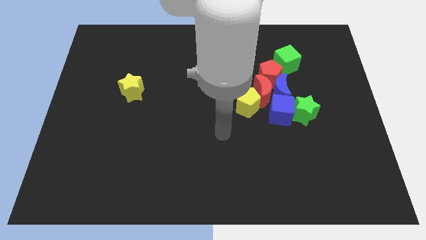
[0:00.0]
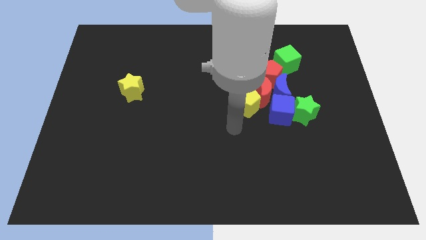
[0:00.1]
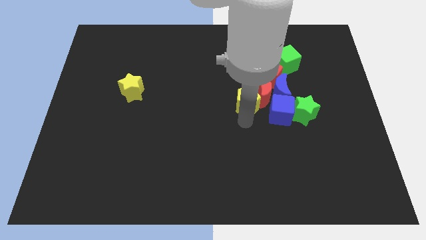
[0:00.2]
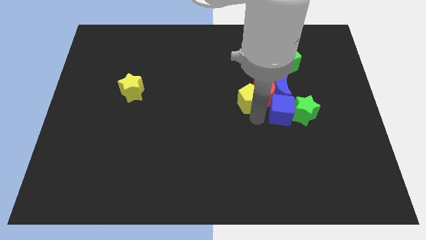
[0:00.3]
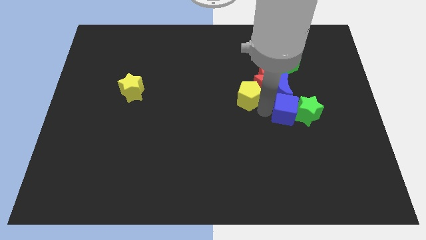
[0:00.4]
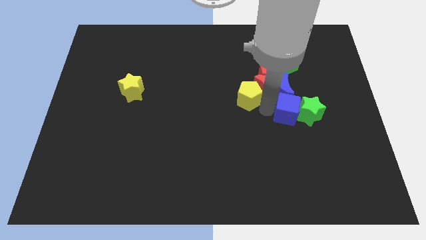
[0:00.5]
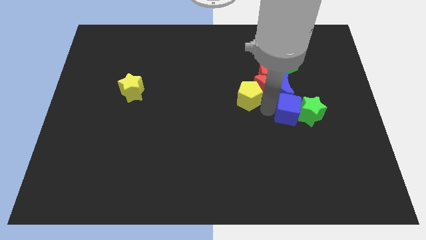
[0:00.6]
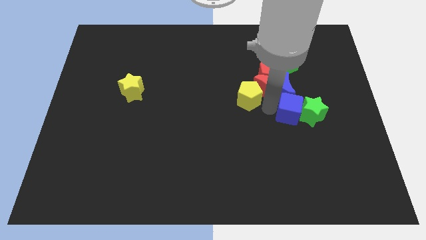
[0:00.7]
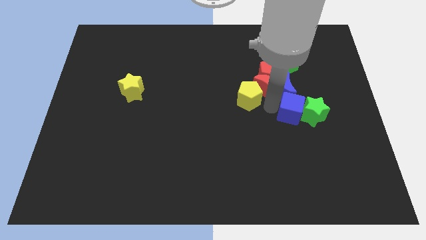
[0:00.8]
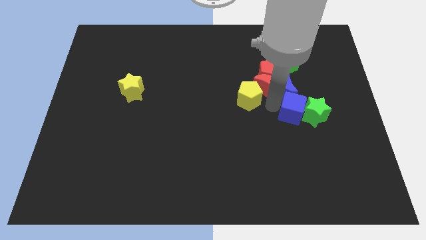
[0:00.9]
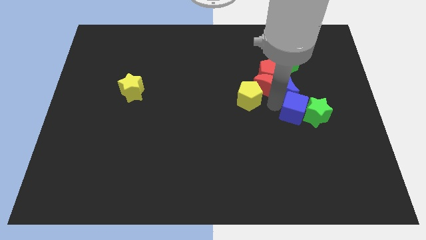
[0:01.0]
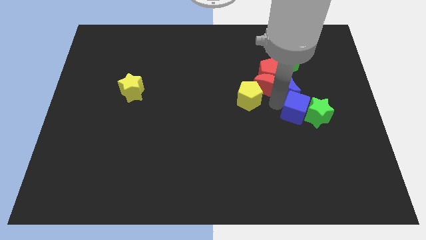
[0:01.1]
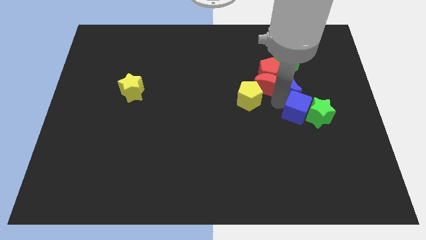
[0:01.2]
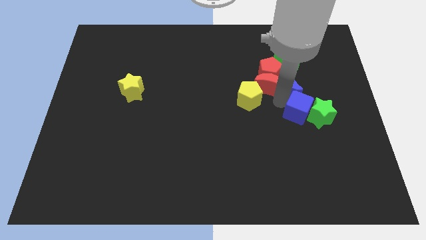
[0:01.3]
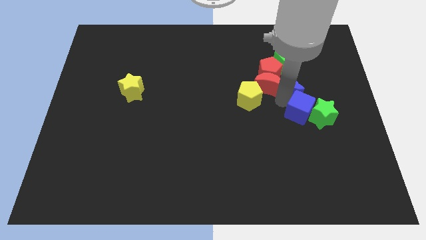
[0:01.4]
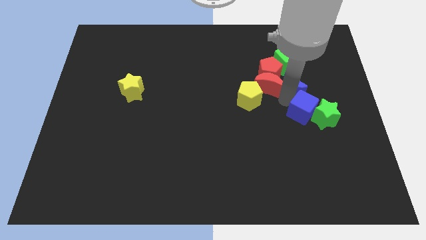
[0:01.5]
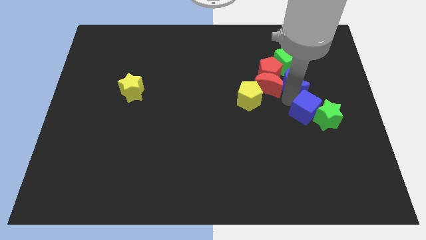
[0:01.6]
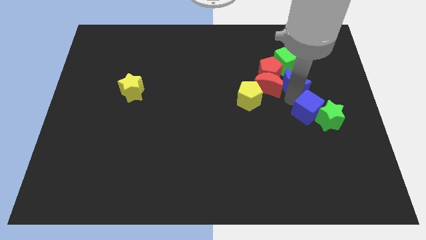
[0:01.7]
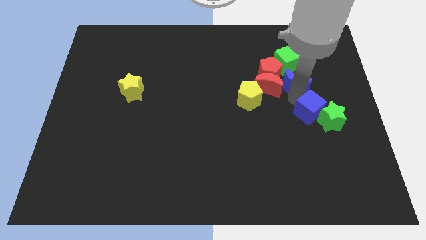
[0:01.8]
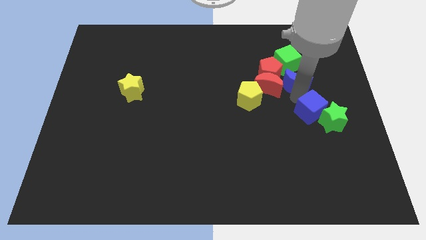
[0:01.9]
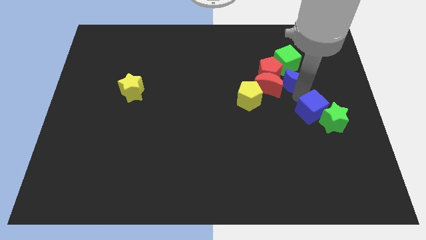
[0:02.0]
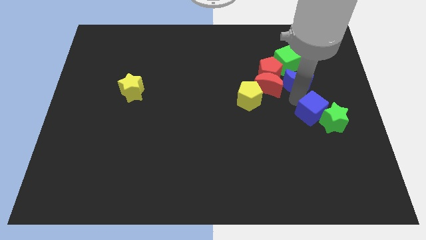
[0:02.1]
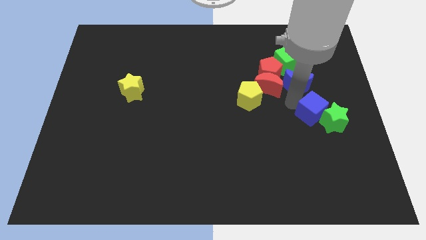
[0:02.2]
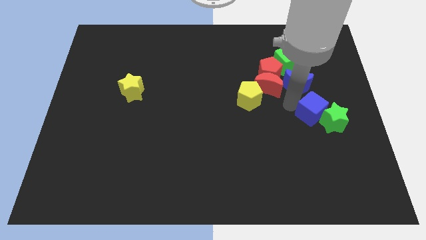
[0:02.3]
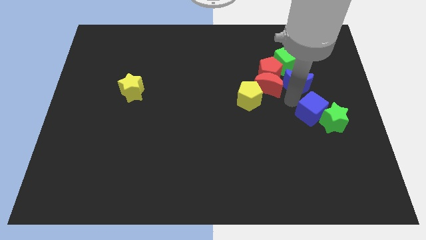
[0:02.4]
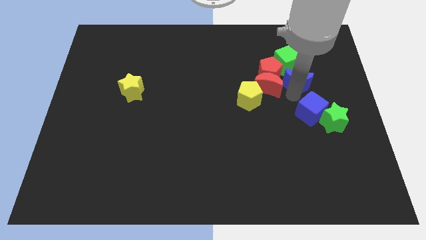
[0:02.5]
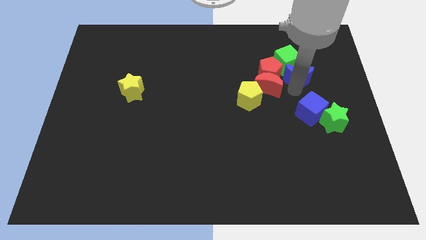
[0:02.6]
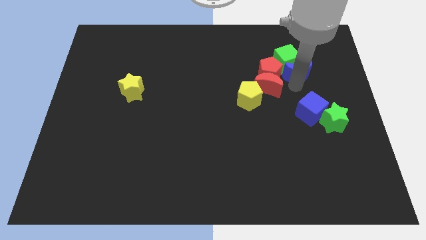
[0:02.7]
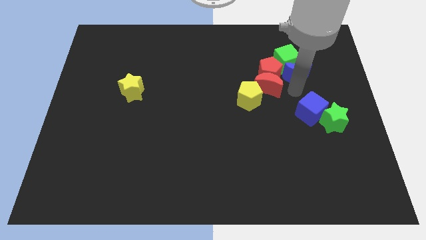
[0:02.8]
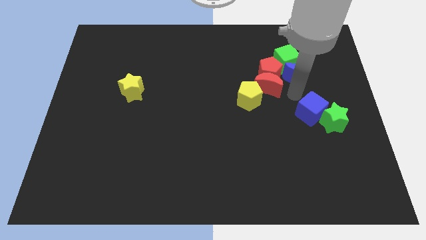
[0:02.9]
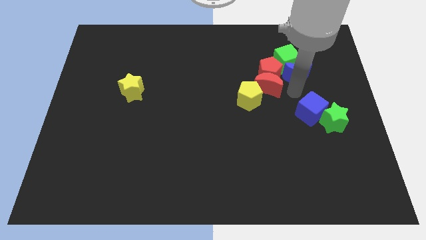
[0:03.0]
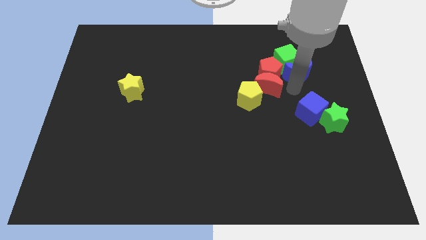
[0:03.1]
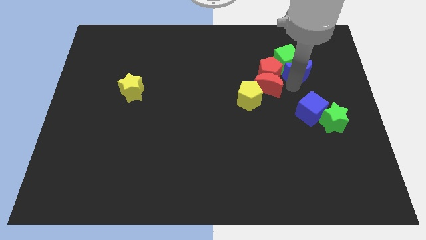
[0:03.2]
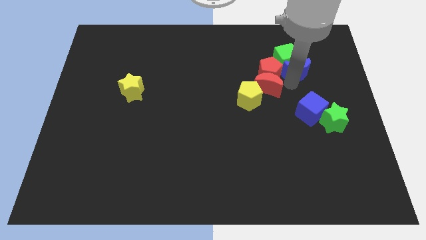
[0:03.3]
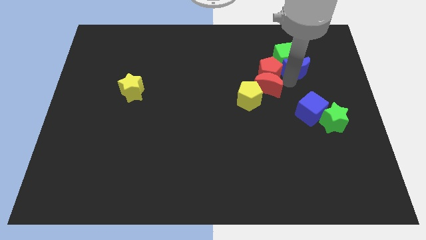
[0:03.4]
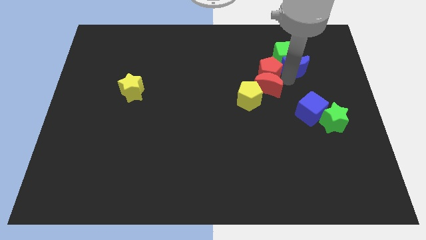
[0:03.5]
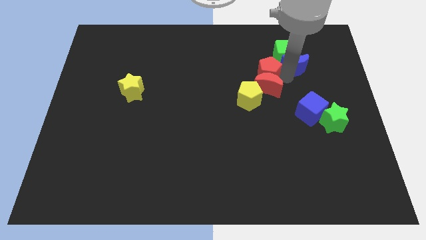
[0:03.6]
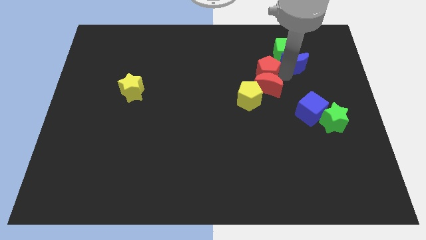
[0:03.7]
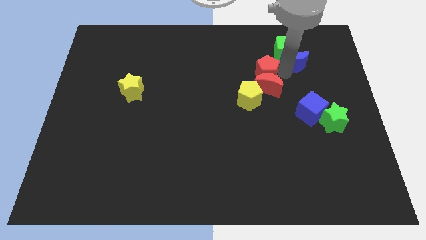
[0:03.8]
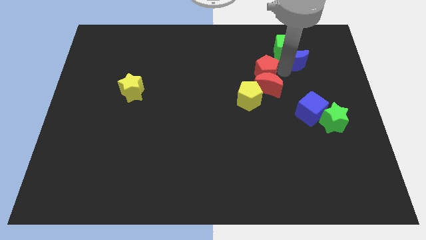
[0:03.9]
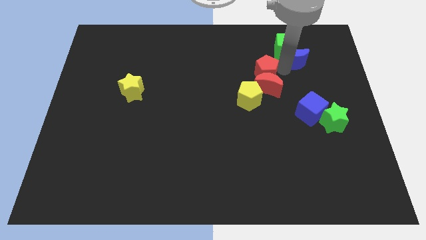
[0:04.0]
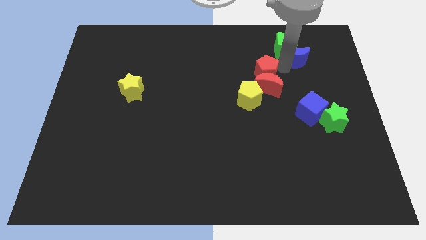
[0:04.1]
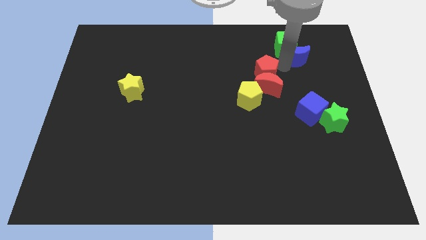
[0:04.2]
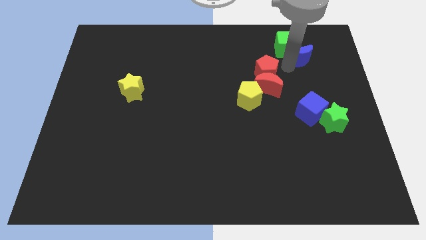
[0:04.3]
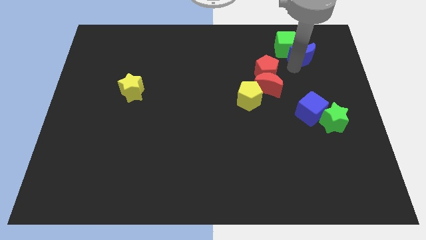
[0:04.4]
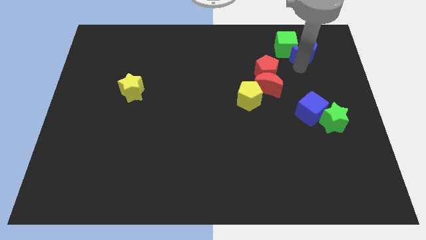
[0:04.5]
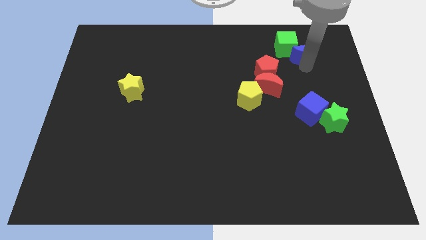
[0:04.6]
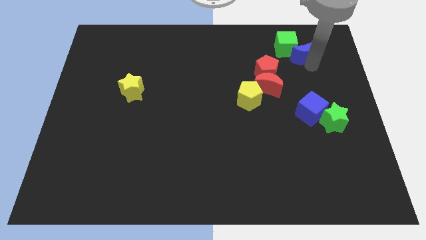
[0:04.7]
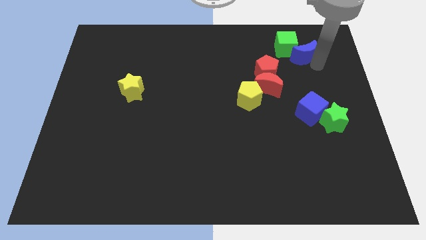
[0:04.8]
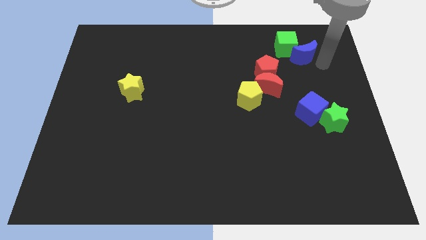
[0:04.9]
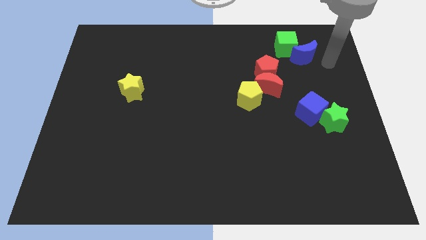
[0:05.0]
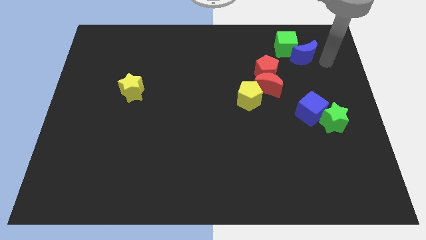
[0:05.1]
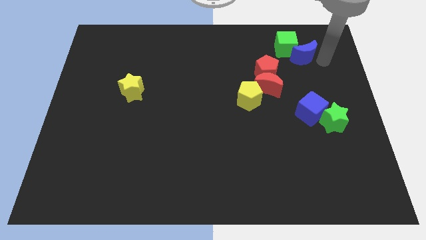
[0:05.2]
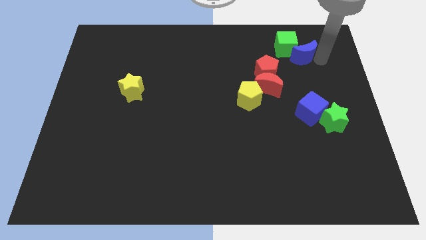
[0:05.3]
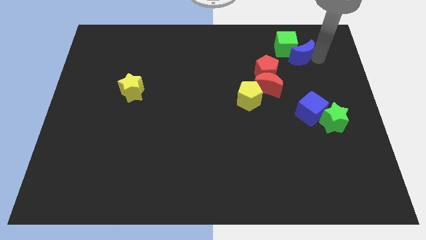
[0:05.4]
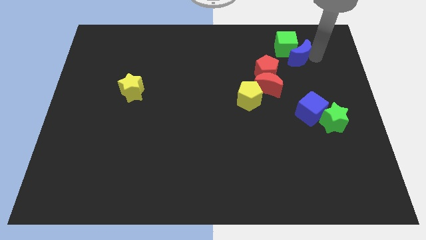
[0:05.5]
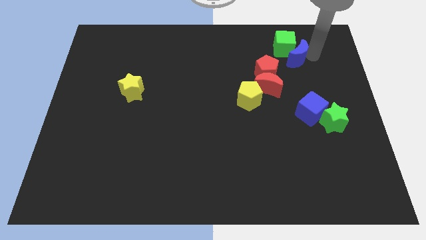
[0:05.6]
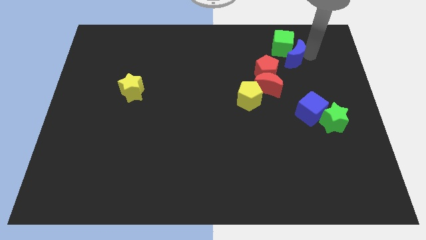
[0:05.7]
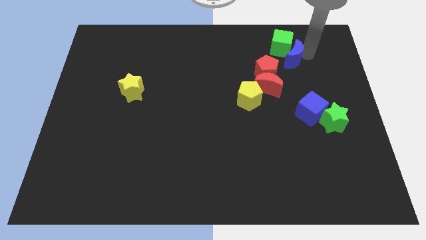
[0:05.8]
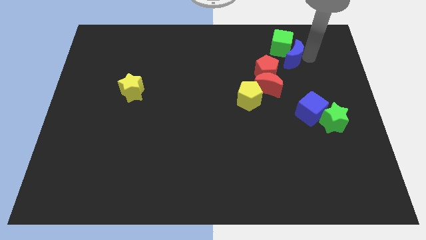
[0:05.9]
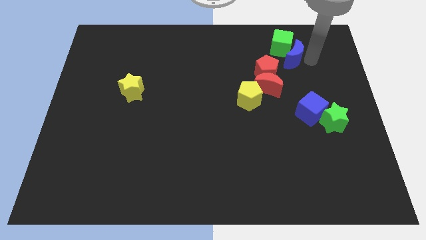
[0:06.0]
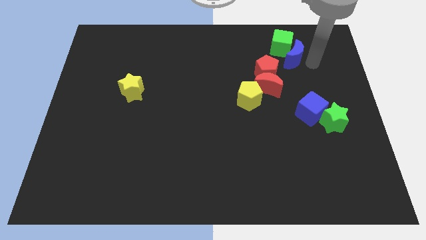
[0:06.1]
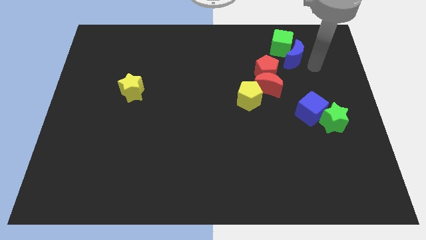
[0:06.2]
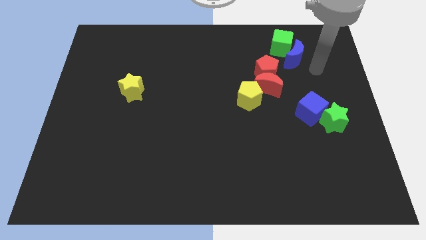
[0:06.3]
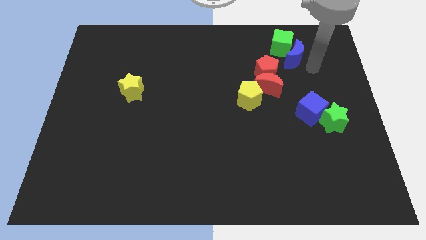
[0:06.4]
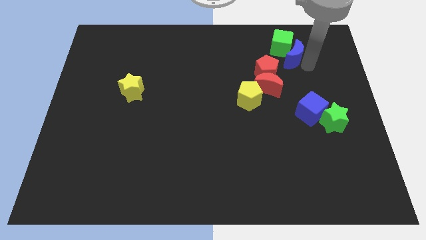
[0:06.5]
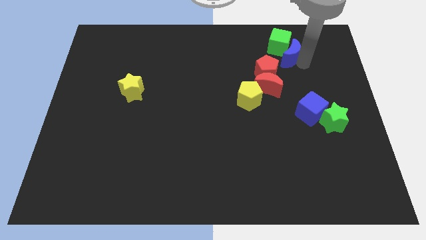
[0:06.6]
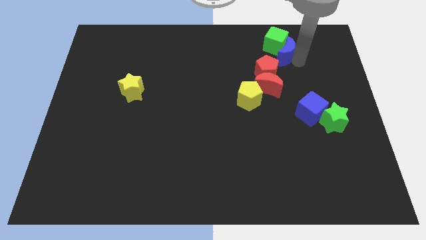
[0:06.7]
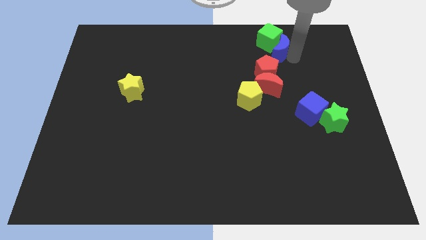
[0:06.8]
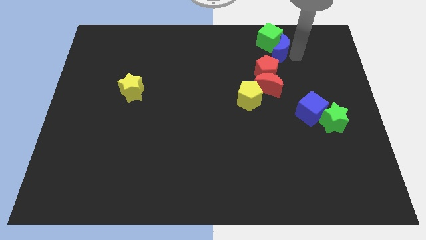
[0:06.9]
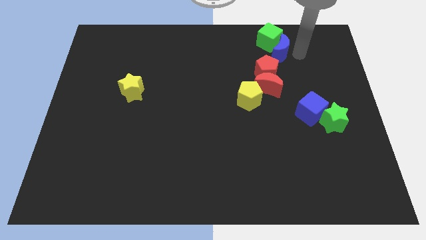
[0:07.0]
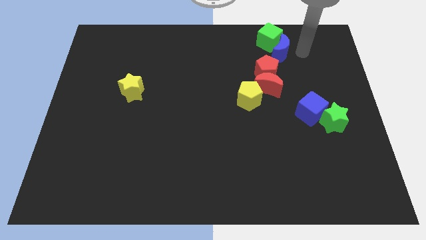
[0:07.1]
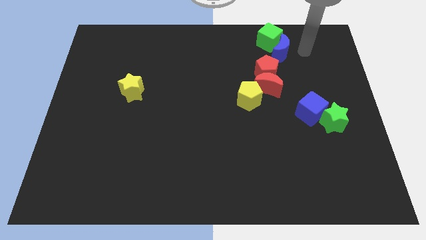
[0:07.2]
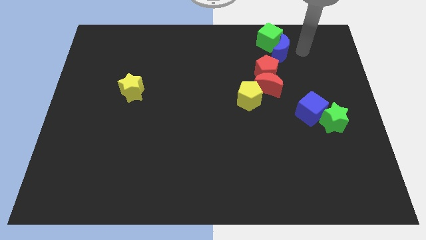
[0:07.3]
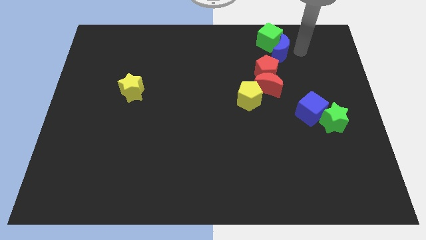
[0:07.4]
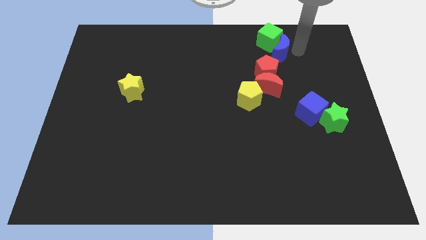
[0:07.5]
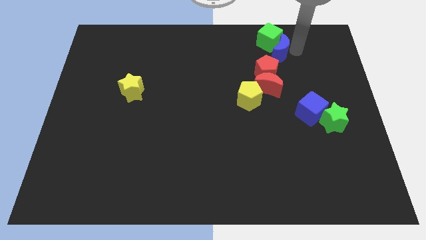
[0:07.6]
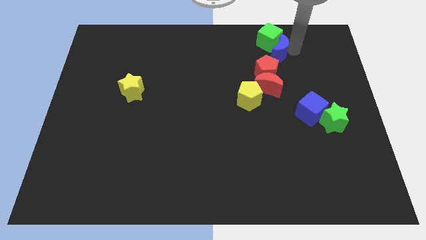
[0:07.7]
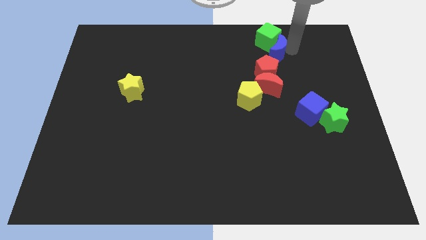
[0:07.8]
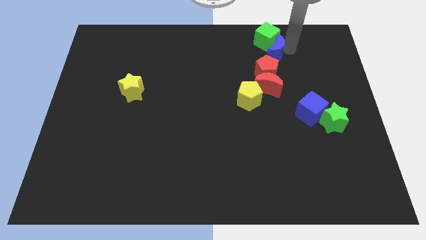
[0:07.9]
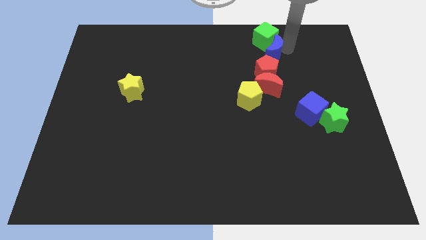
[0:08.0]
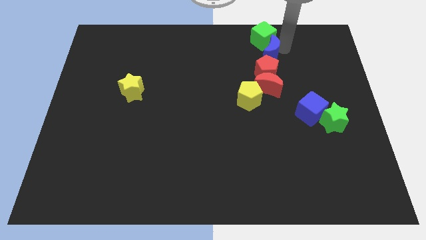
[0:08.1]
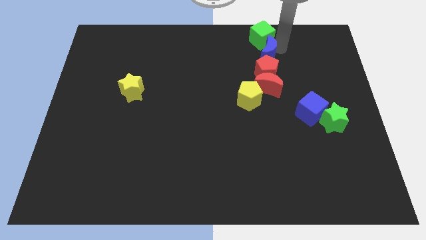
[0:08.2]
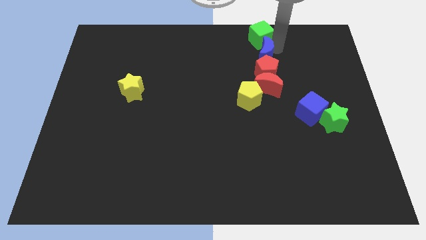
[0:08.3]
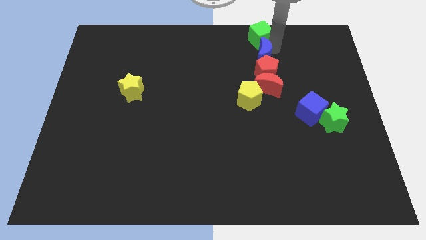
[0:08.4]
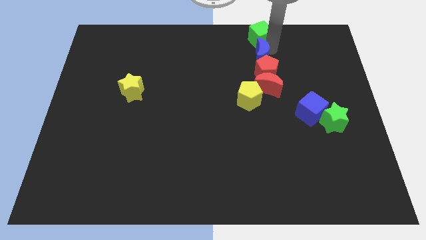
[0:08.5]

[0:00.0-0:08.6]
move the blue moon to the top of the yellow pentagon
